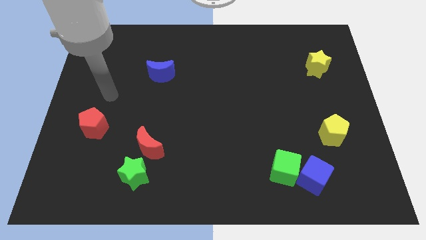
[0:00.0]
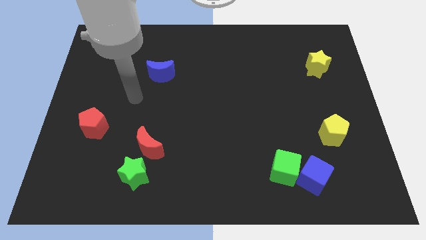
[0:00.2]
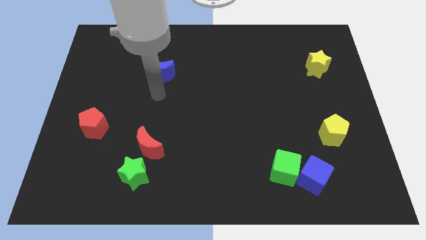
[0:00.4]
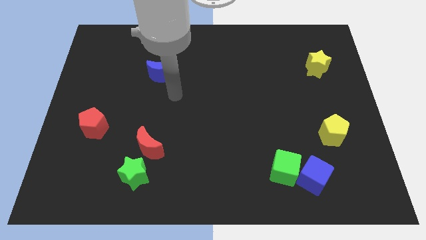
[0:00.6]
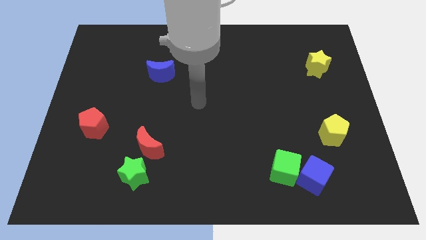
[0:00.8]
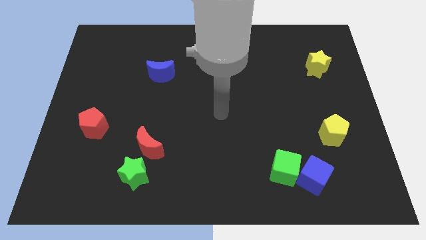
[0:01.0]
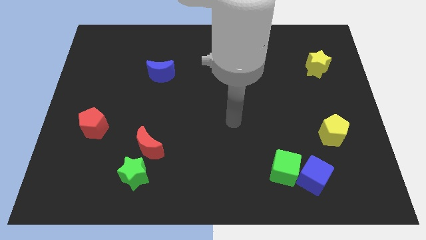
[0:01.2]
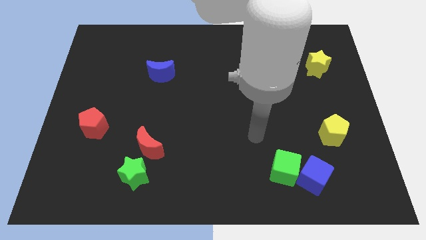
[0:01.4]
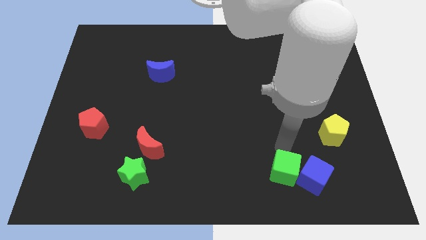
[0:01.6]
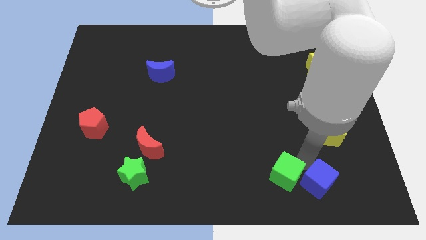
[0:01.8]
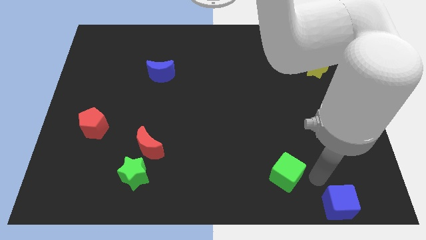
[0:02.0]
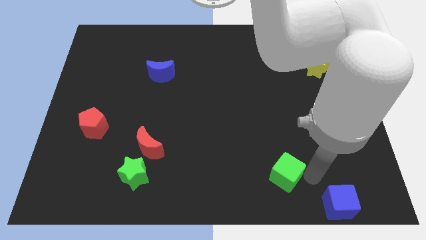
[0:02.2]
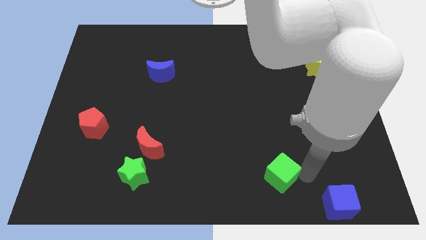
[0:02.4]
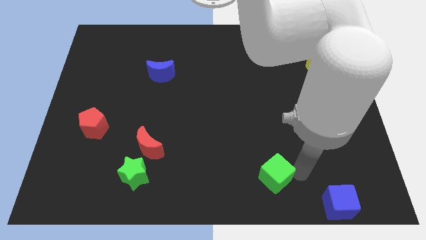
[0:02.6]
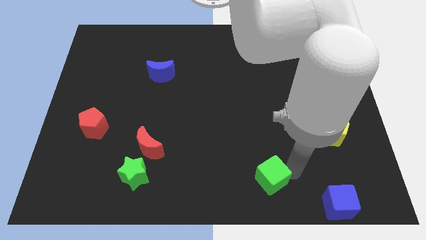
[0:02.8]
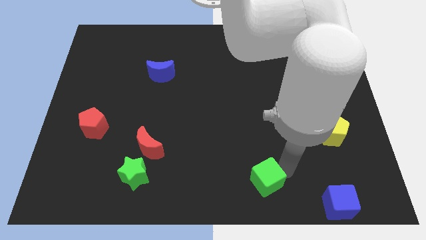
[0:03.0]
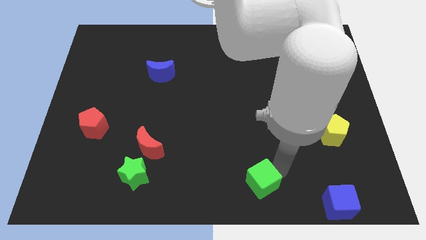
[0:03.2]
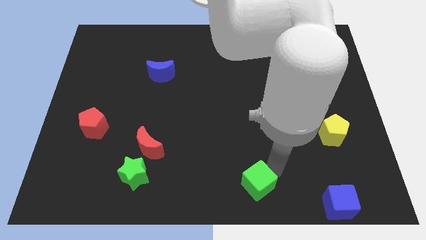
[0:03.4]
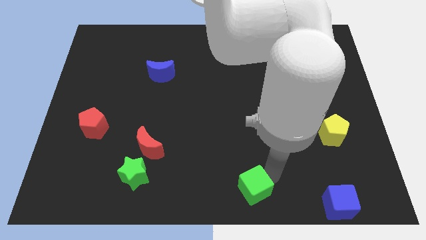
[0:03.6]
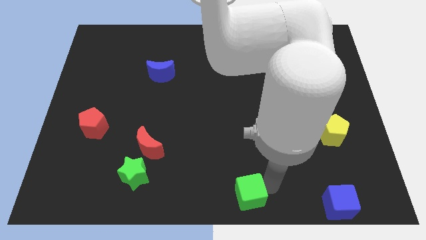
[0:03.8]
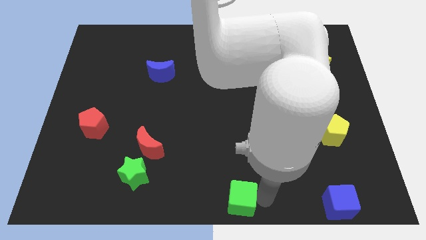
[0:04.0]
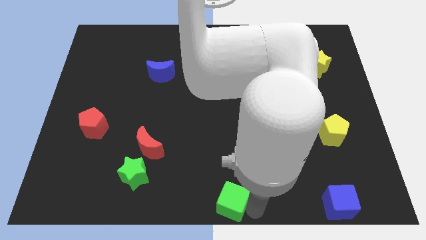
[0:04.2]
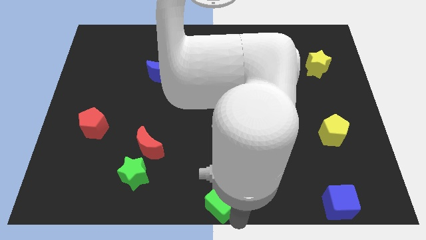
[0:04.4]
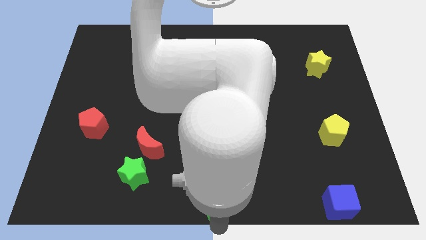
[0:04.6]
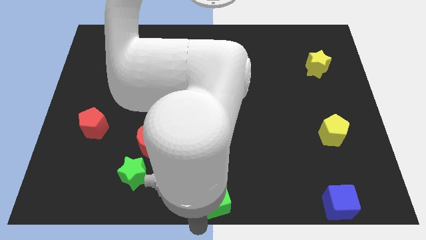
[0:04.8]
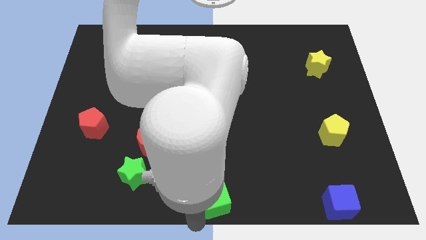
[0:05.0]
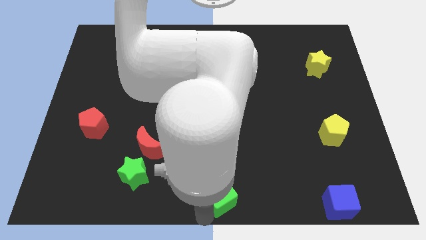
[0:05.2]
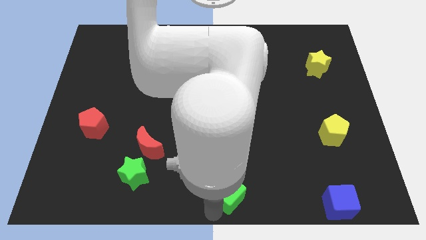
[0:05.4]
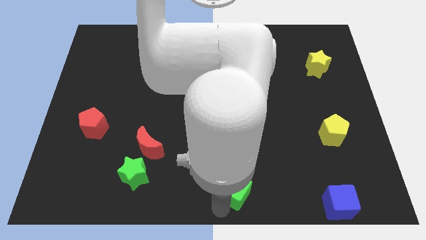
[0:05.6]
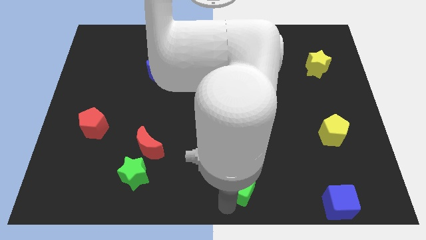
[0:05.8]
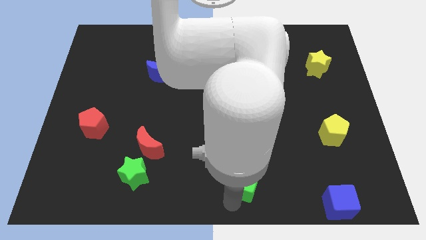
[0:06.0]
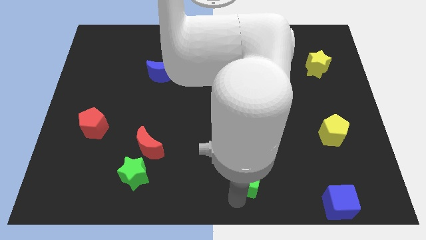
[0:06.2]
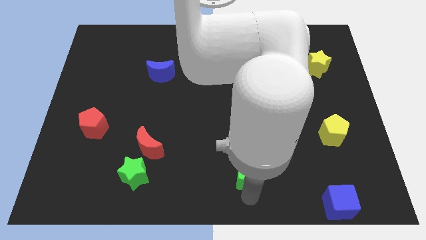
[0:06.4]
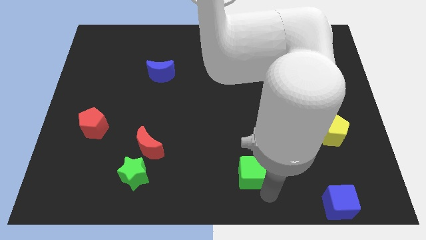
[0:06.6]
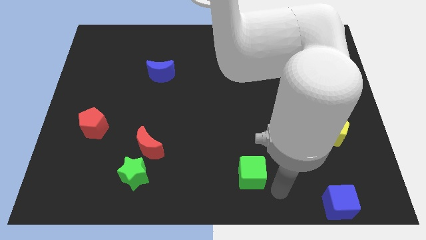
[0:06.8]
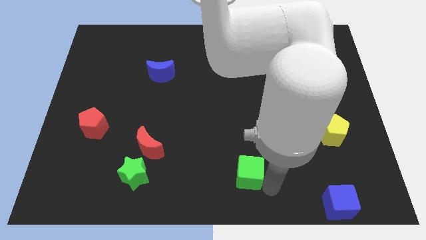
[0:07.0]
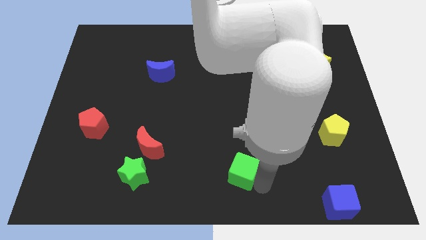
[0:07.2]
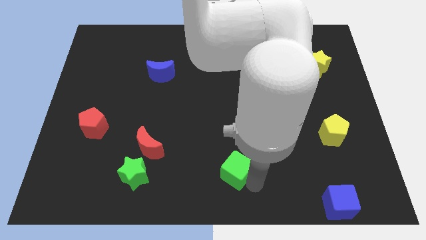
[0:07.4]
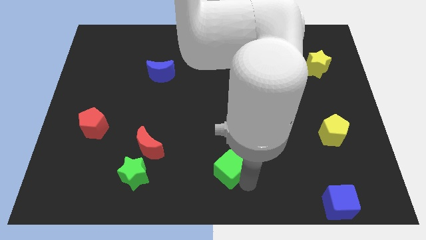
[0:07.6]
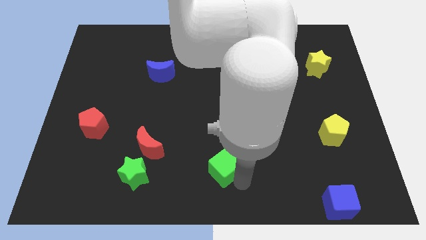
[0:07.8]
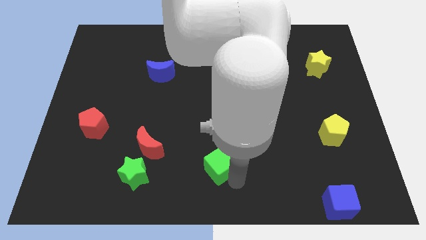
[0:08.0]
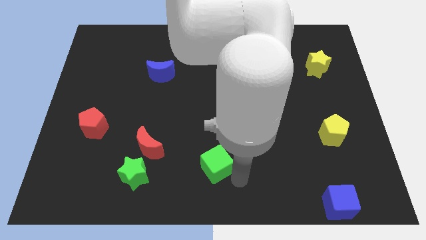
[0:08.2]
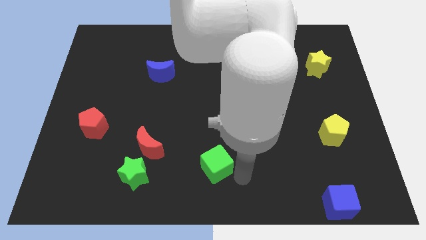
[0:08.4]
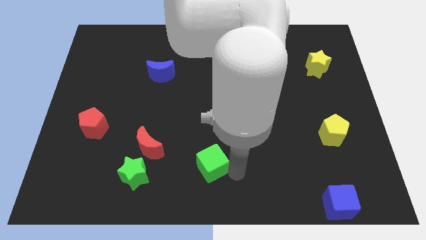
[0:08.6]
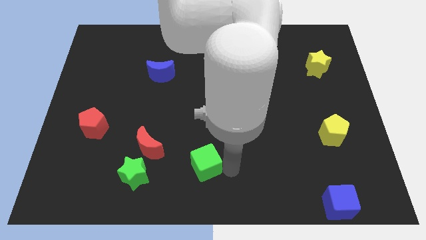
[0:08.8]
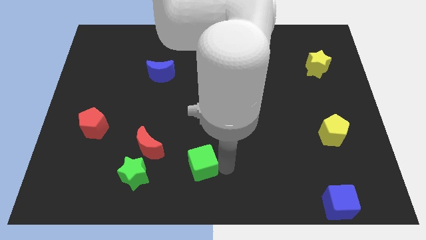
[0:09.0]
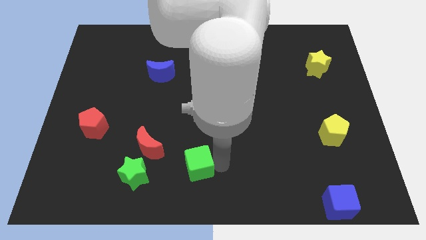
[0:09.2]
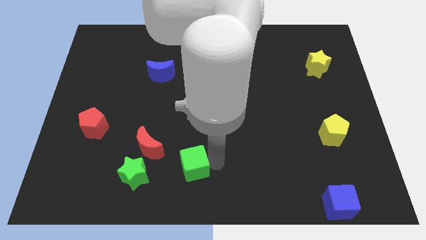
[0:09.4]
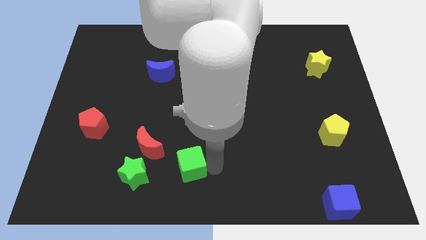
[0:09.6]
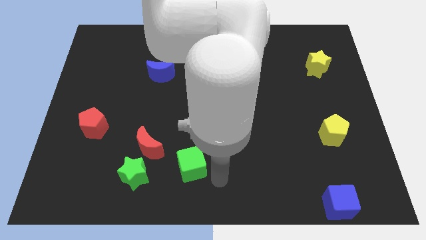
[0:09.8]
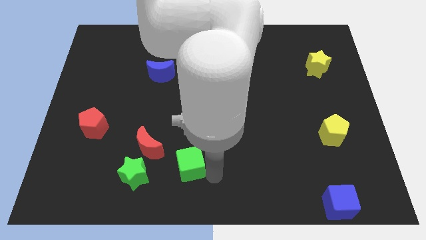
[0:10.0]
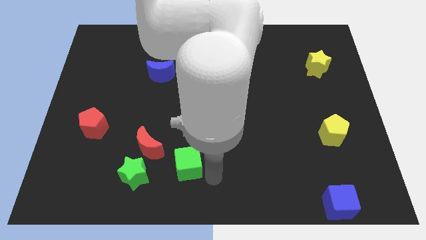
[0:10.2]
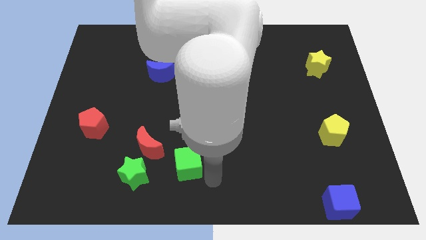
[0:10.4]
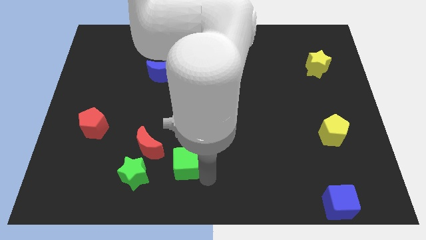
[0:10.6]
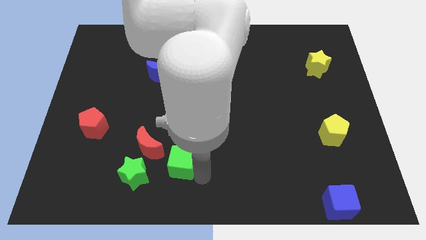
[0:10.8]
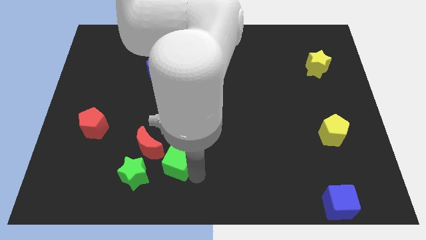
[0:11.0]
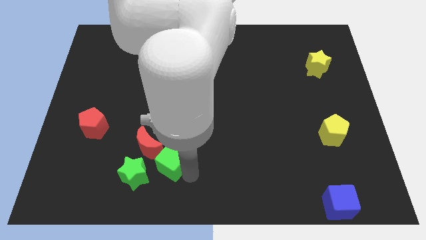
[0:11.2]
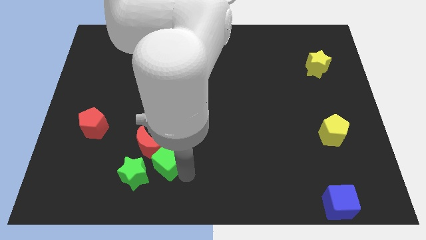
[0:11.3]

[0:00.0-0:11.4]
put the green cube next to the red moon
